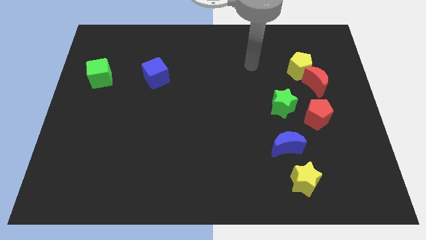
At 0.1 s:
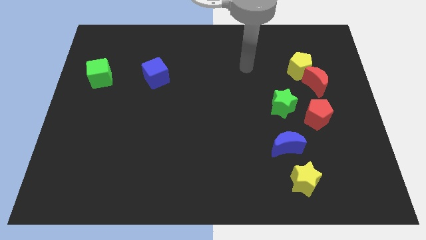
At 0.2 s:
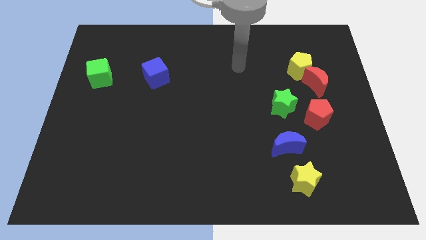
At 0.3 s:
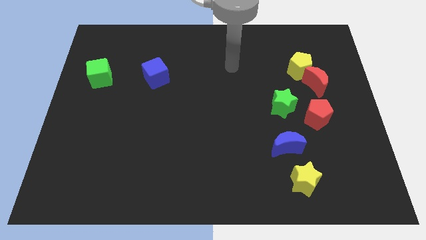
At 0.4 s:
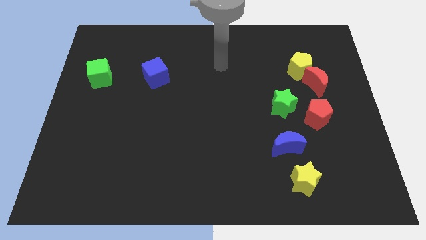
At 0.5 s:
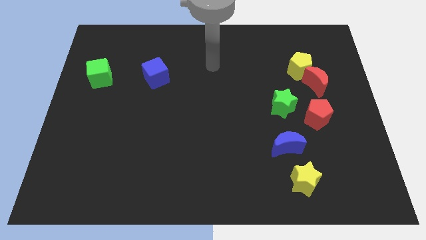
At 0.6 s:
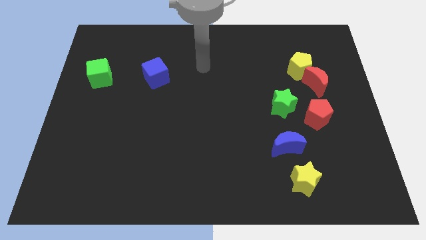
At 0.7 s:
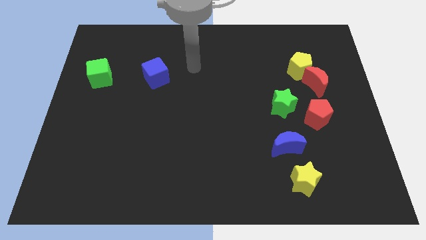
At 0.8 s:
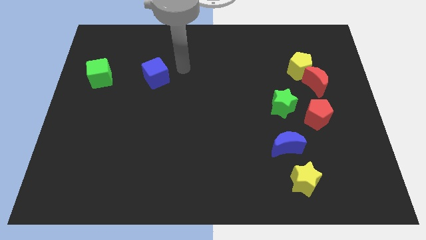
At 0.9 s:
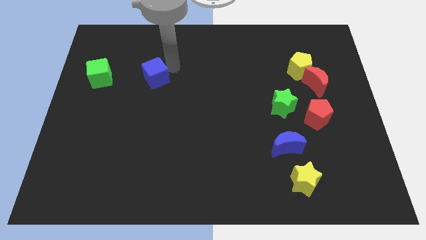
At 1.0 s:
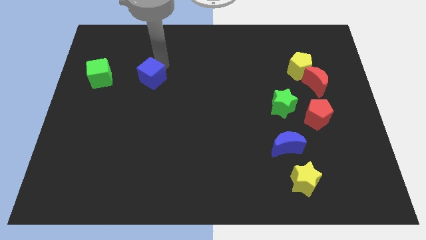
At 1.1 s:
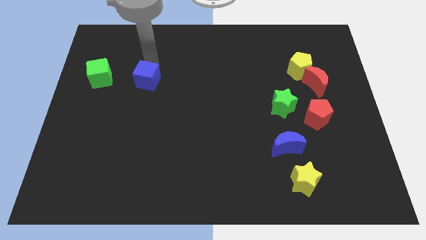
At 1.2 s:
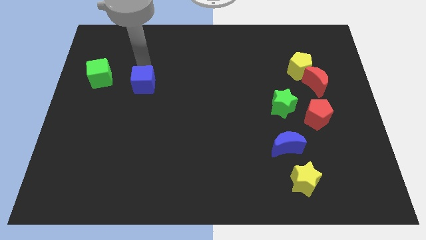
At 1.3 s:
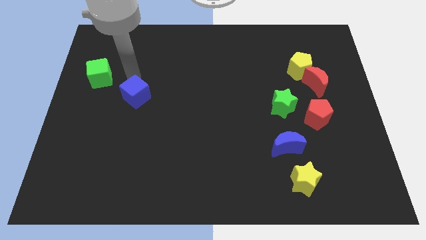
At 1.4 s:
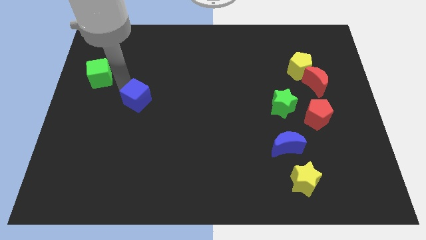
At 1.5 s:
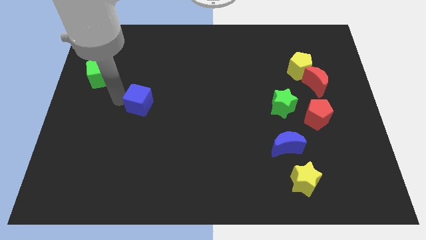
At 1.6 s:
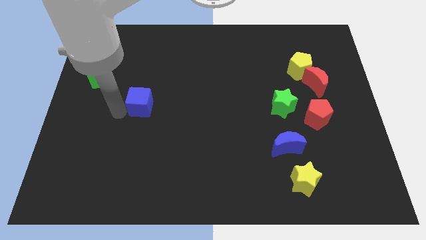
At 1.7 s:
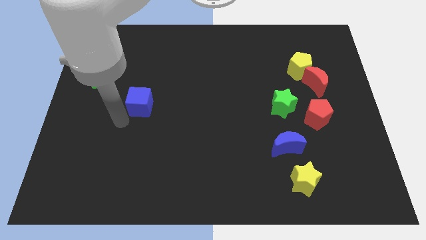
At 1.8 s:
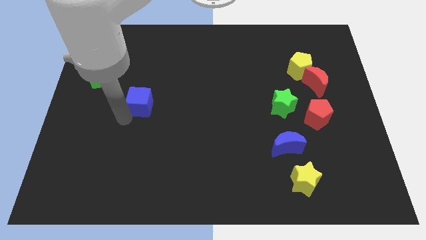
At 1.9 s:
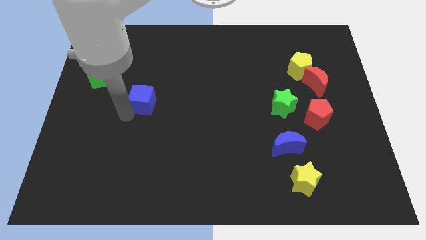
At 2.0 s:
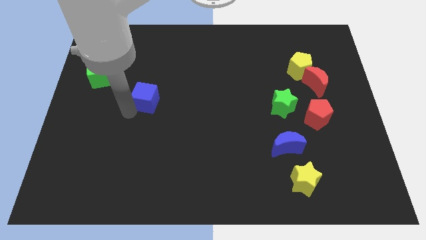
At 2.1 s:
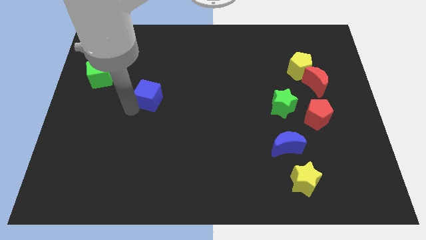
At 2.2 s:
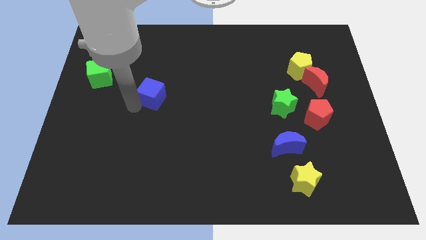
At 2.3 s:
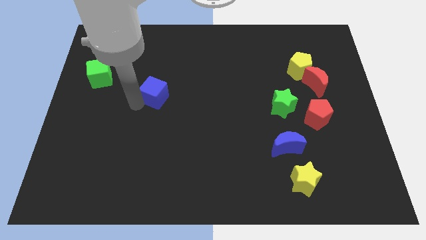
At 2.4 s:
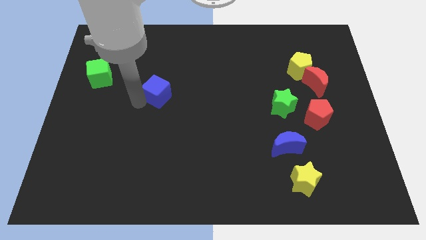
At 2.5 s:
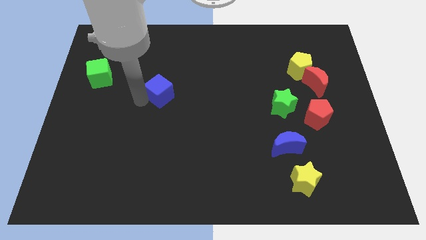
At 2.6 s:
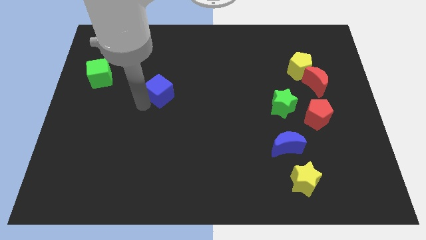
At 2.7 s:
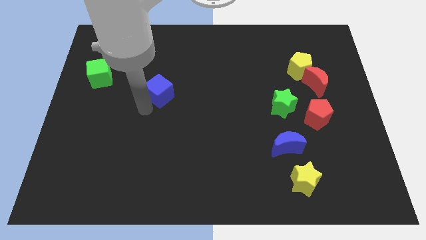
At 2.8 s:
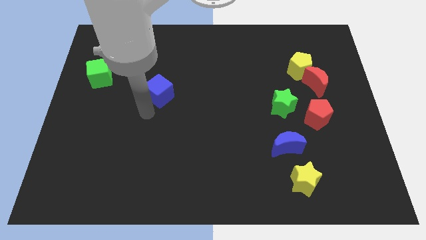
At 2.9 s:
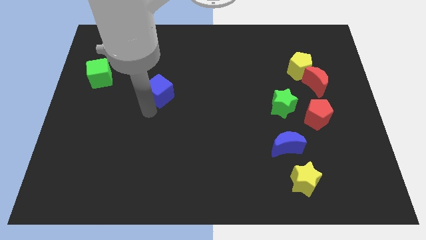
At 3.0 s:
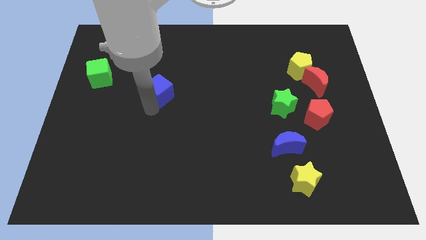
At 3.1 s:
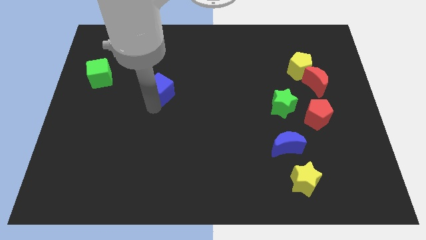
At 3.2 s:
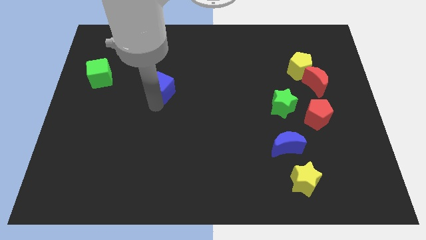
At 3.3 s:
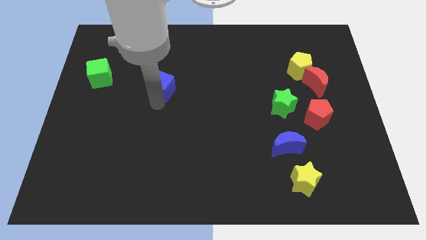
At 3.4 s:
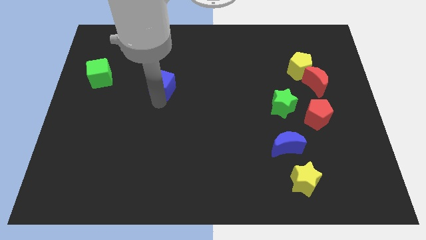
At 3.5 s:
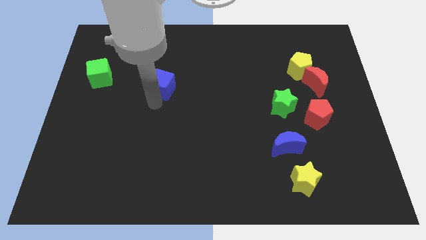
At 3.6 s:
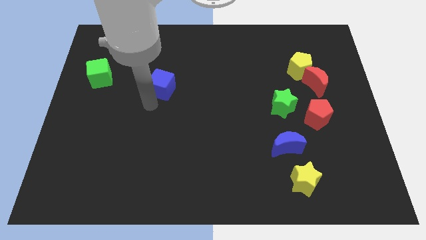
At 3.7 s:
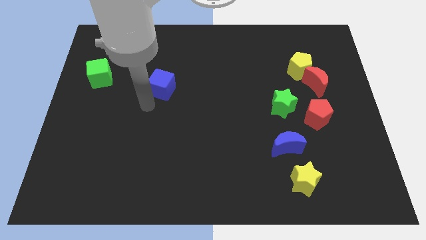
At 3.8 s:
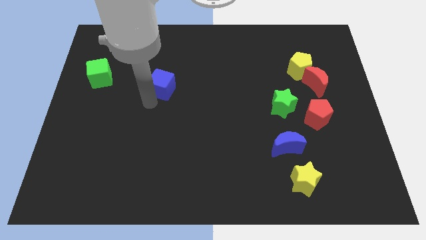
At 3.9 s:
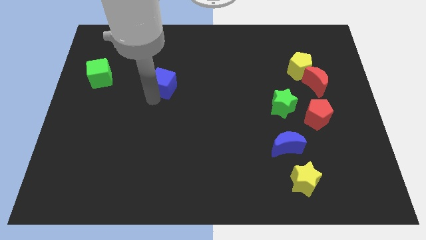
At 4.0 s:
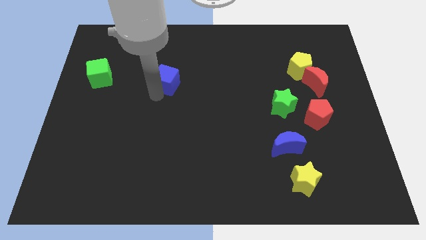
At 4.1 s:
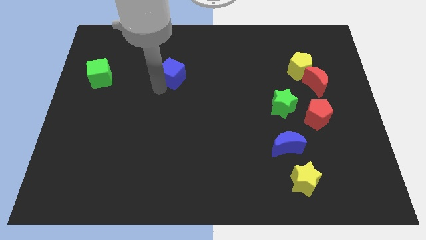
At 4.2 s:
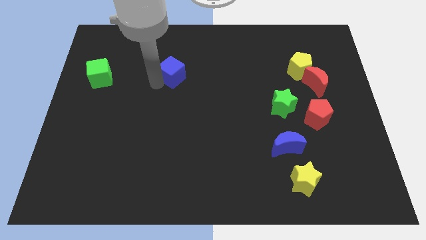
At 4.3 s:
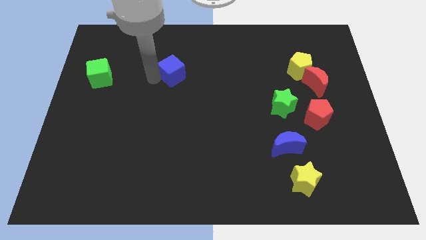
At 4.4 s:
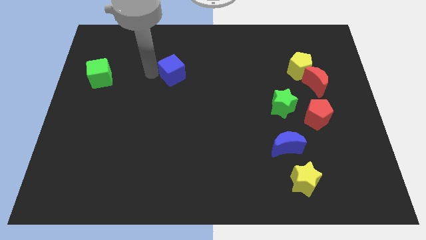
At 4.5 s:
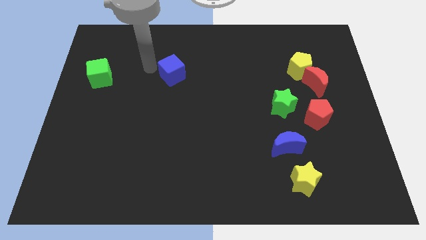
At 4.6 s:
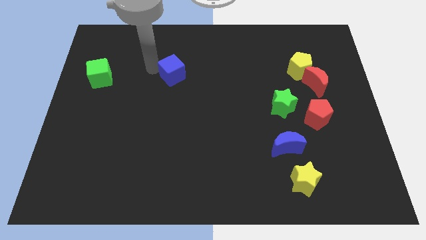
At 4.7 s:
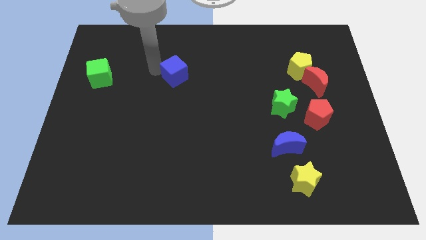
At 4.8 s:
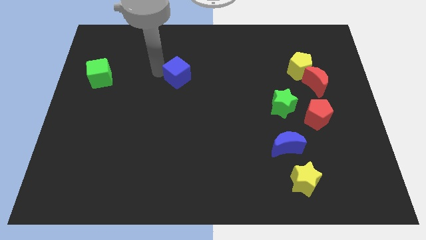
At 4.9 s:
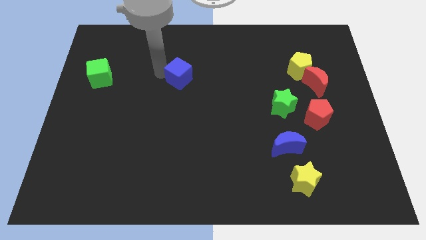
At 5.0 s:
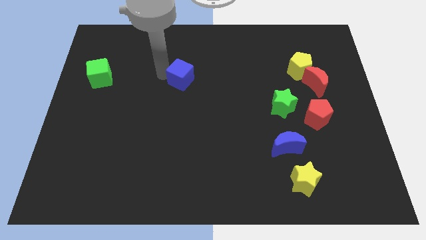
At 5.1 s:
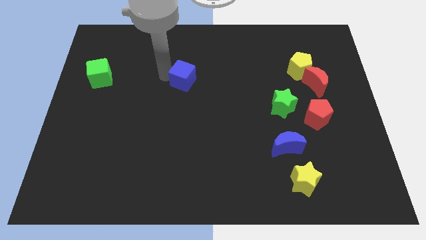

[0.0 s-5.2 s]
slightly push the blue cube right

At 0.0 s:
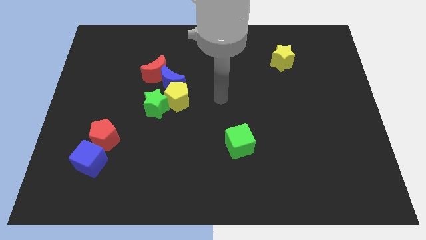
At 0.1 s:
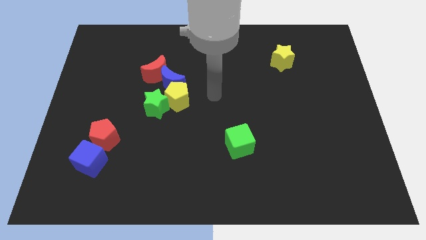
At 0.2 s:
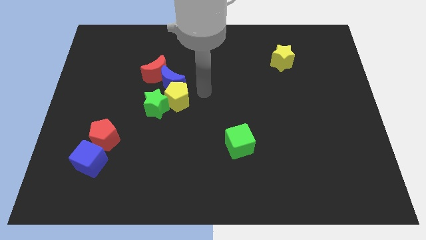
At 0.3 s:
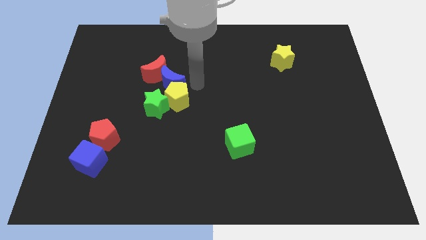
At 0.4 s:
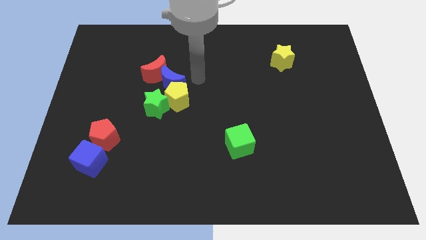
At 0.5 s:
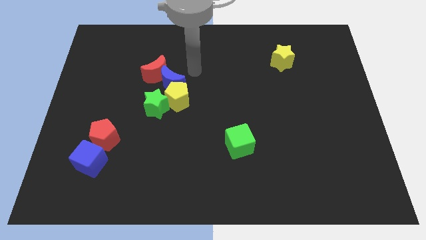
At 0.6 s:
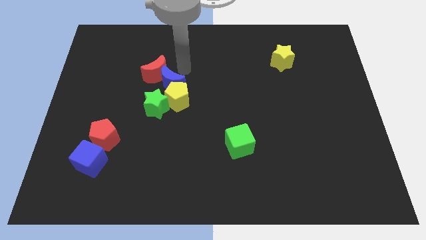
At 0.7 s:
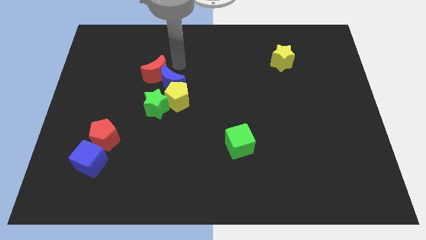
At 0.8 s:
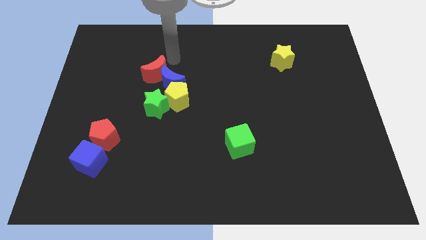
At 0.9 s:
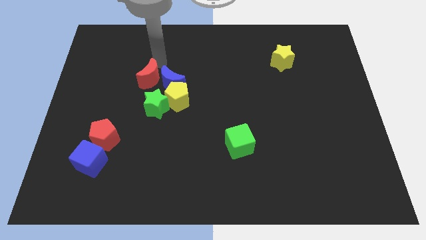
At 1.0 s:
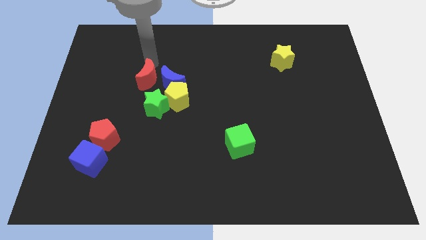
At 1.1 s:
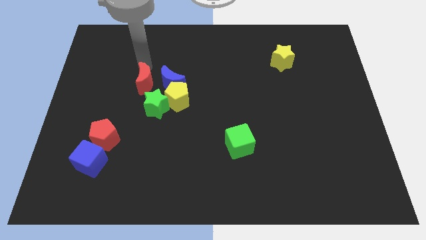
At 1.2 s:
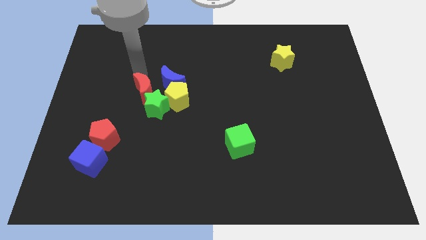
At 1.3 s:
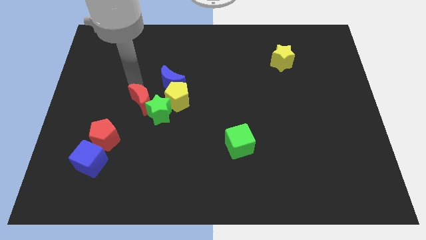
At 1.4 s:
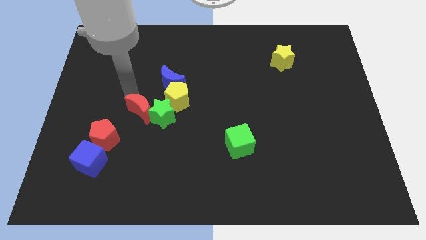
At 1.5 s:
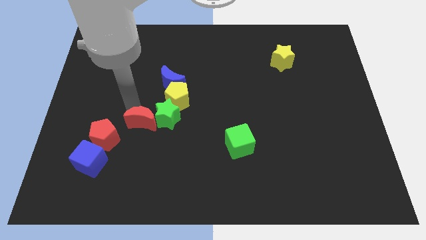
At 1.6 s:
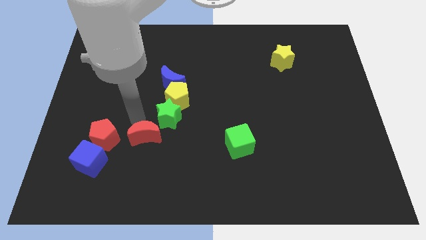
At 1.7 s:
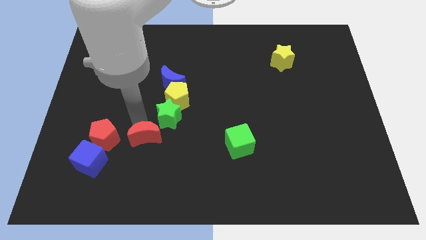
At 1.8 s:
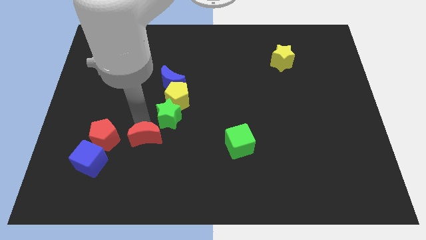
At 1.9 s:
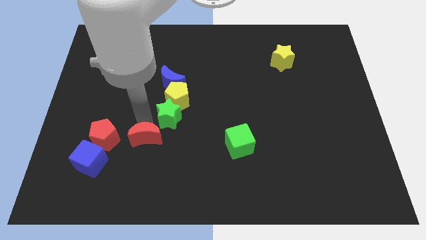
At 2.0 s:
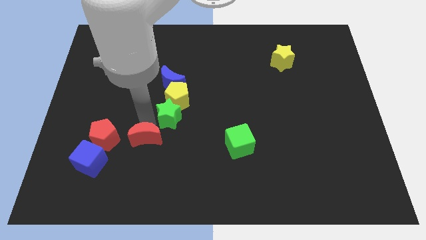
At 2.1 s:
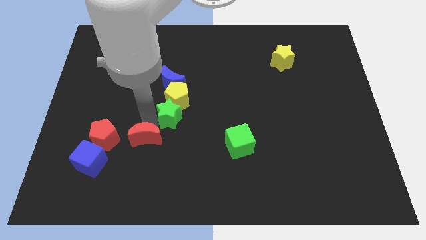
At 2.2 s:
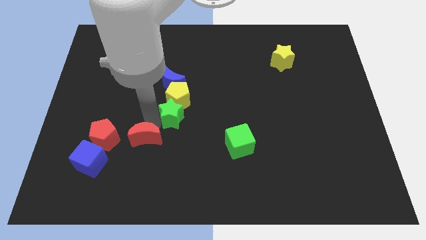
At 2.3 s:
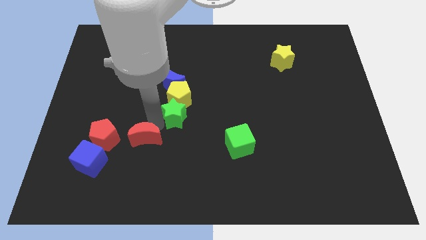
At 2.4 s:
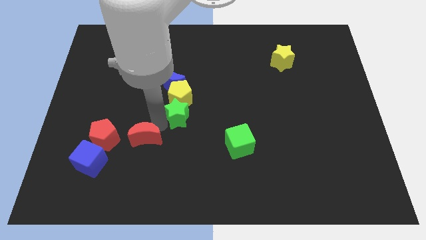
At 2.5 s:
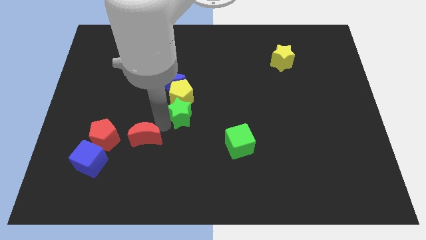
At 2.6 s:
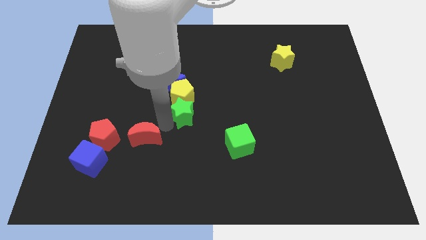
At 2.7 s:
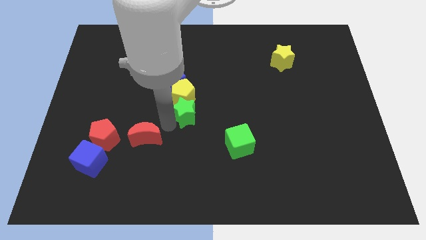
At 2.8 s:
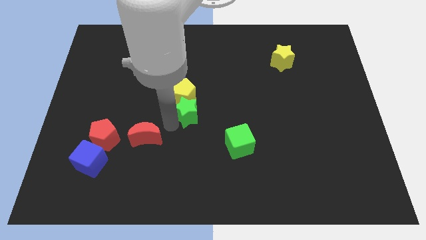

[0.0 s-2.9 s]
slightly push the green star right
